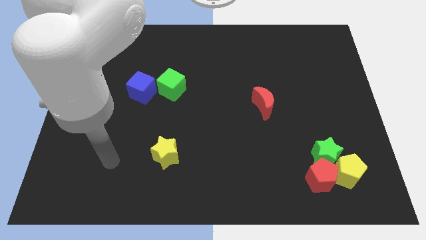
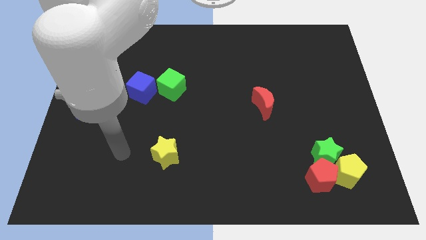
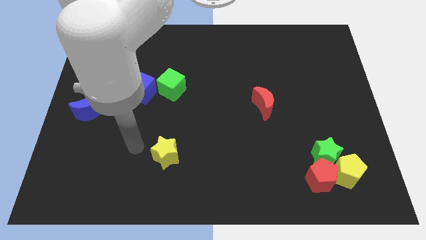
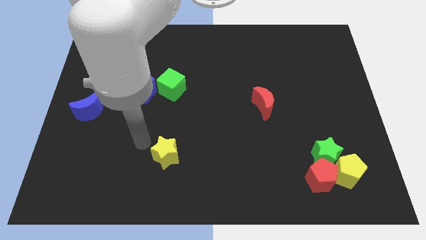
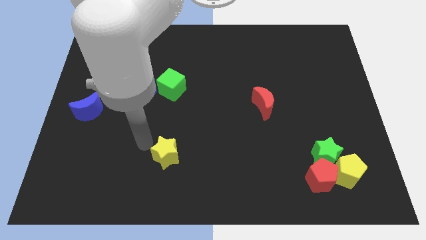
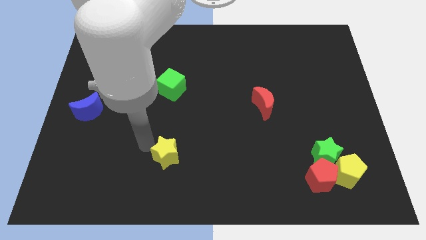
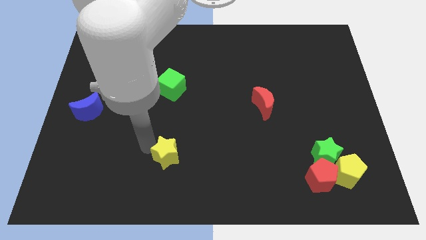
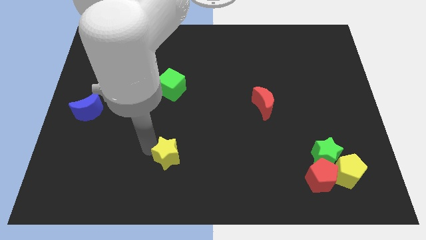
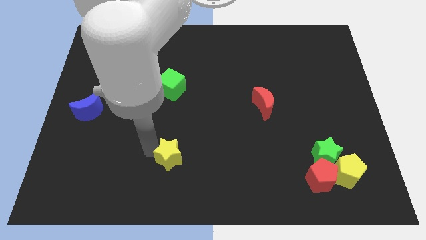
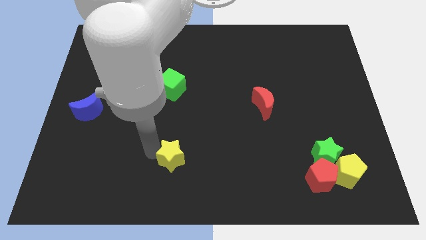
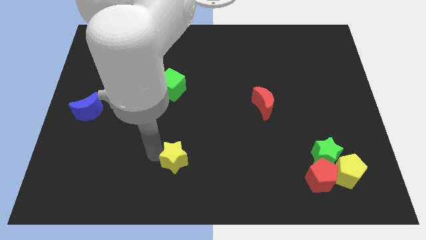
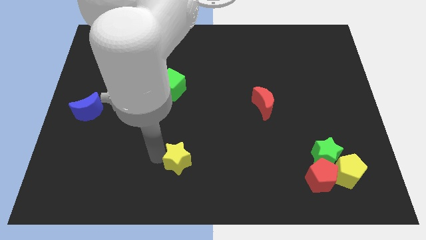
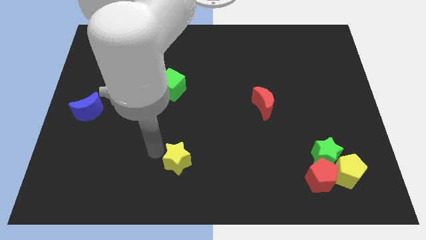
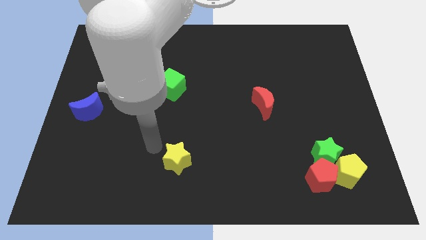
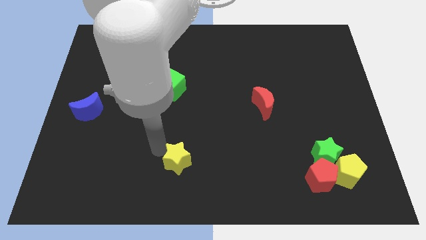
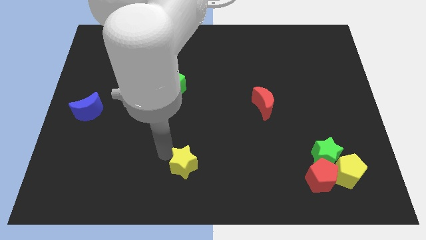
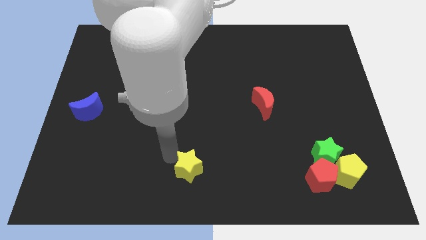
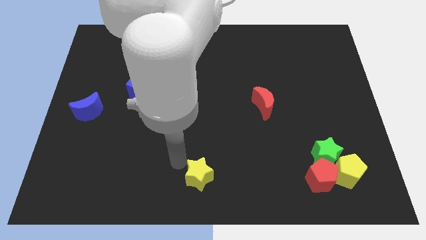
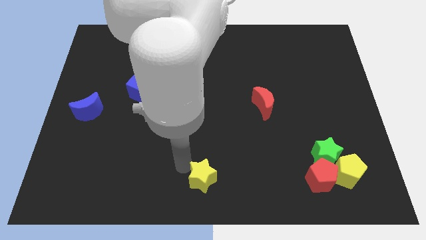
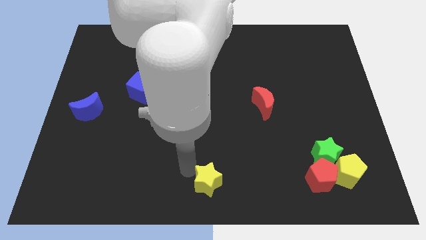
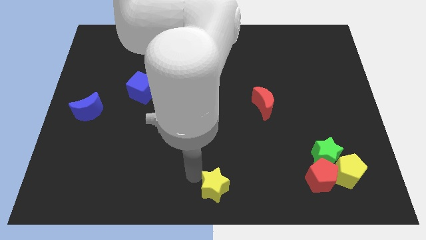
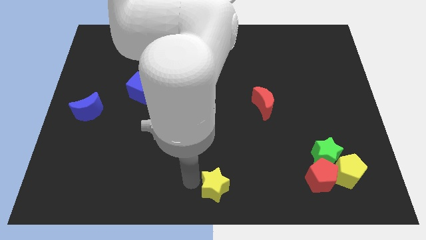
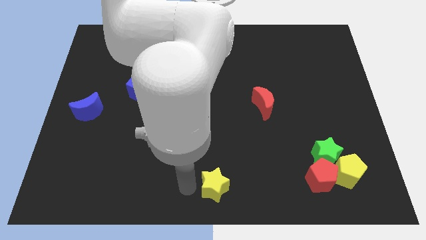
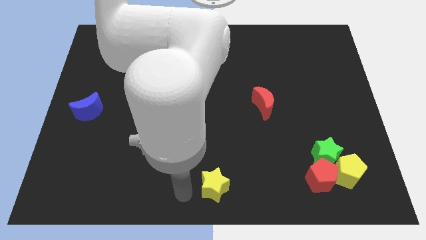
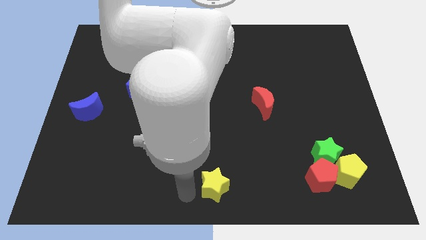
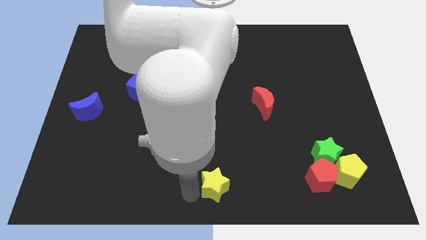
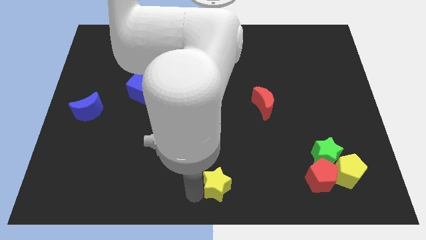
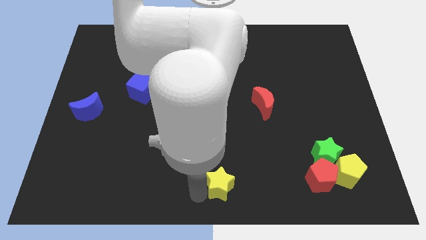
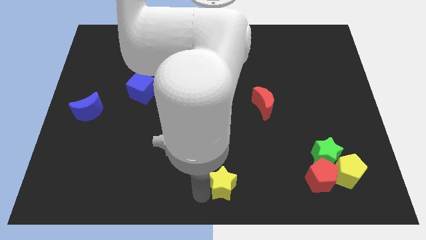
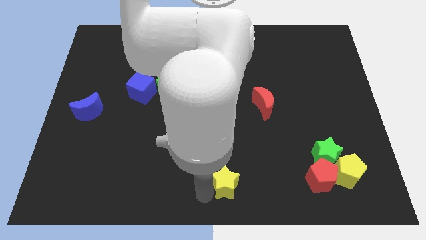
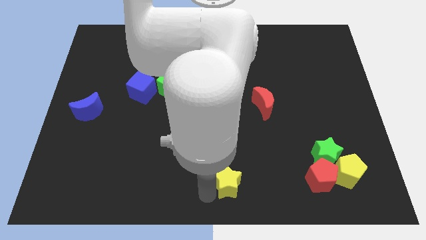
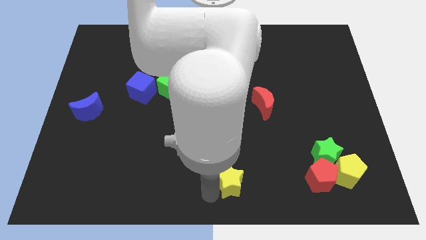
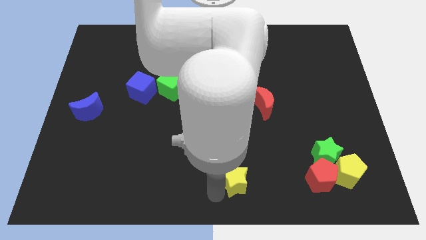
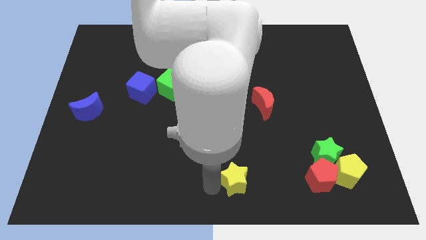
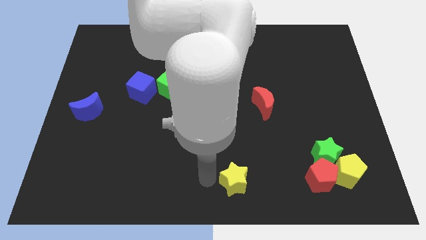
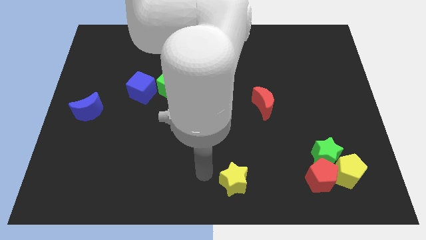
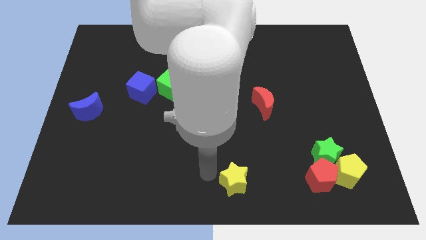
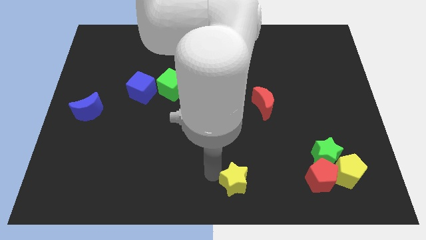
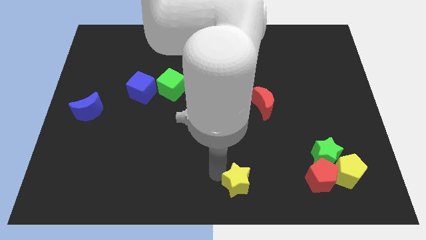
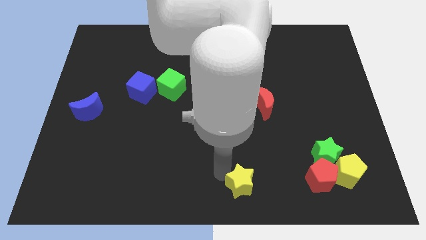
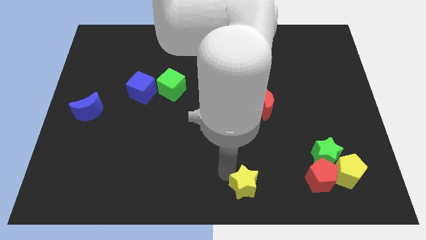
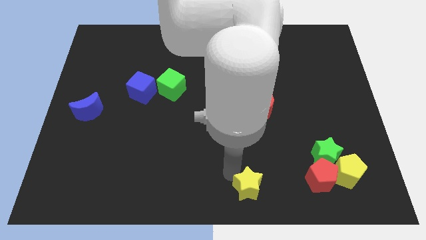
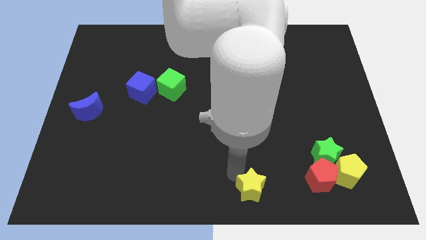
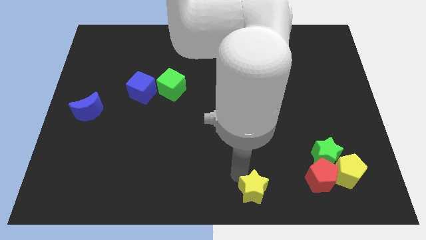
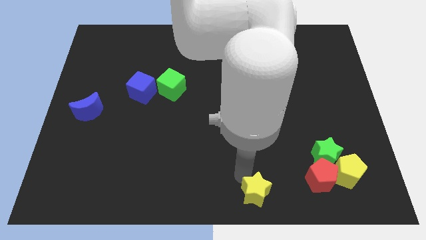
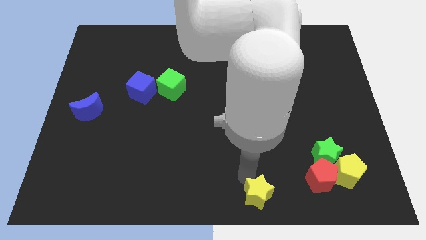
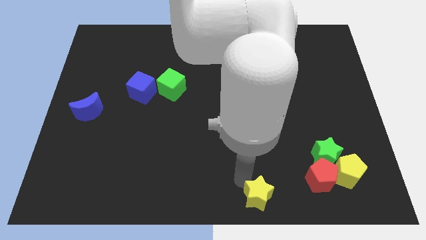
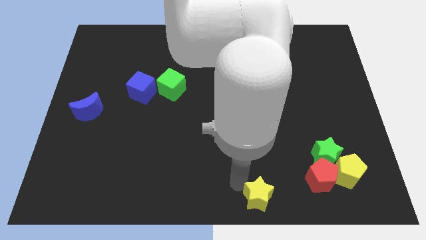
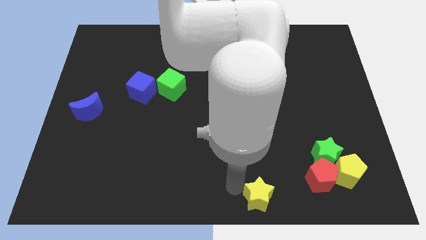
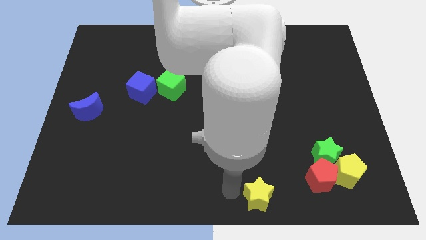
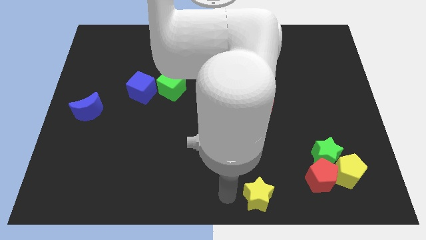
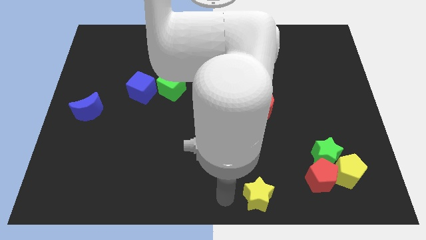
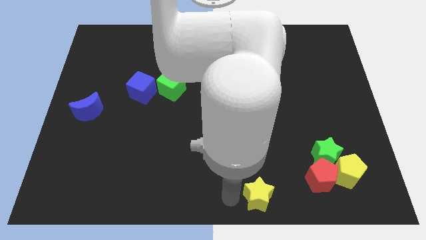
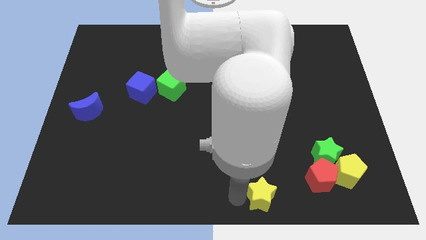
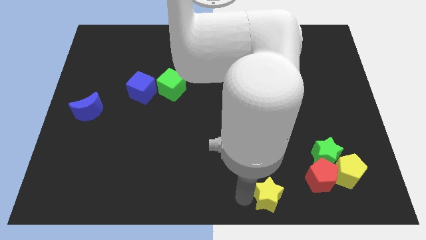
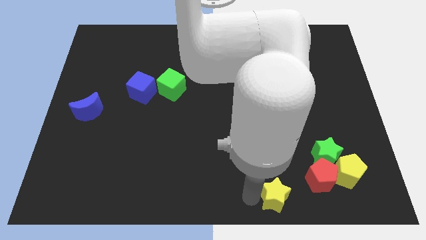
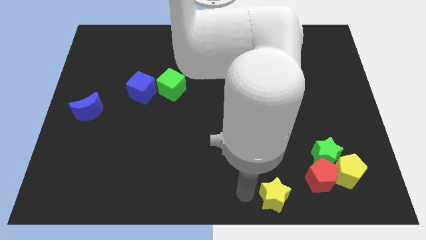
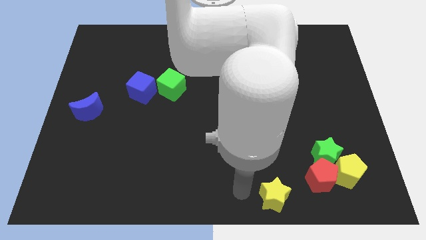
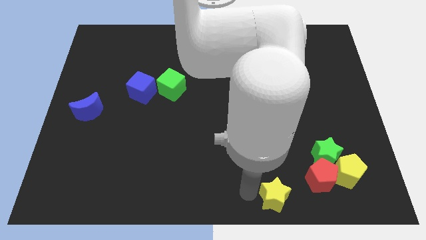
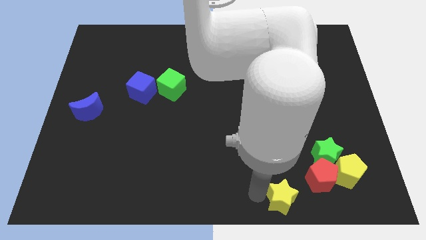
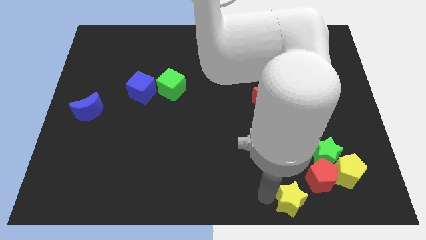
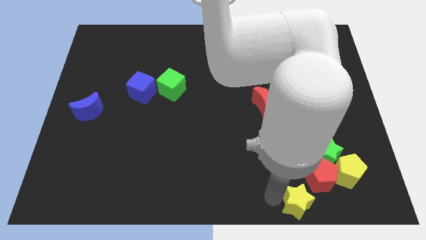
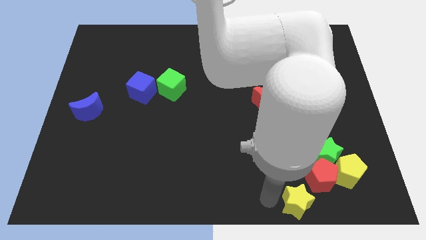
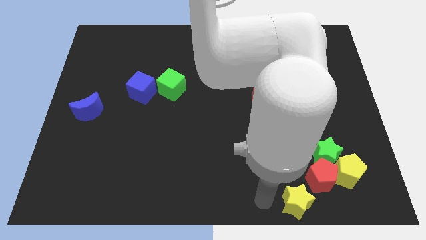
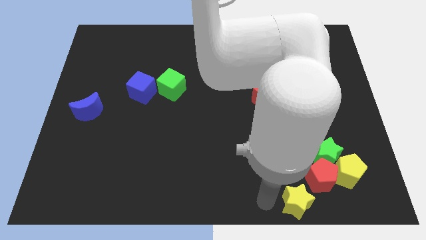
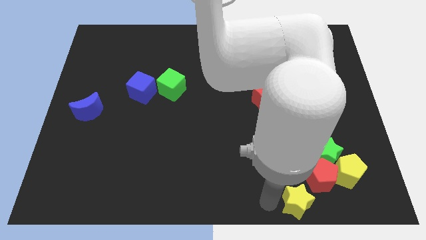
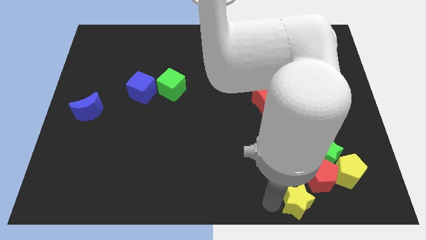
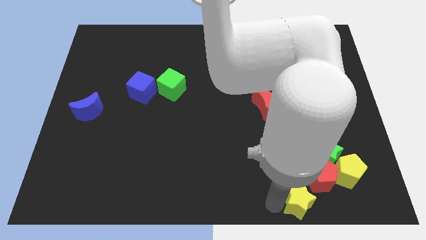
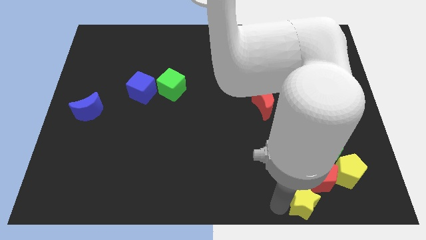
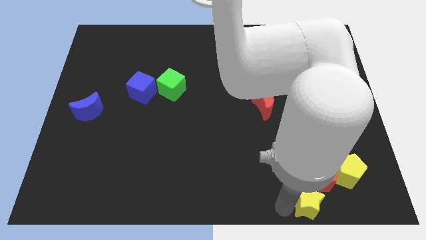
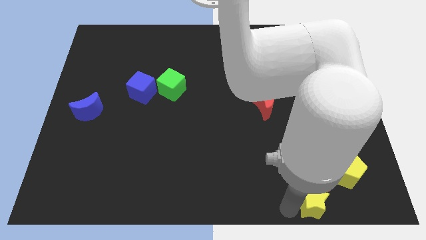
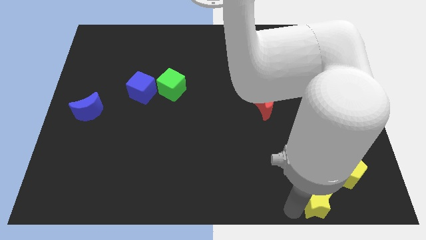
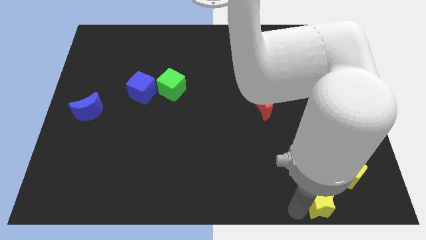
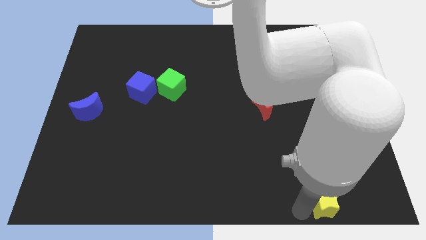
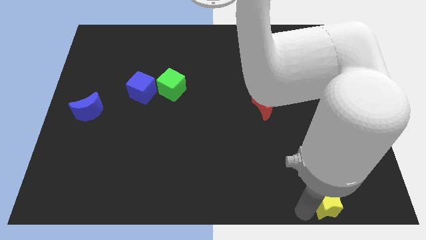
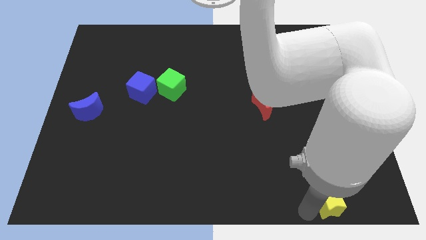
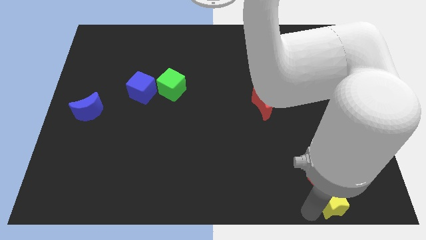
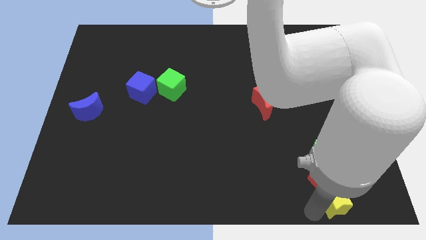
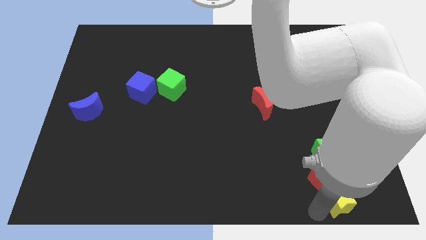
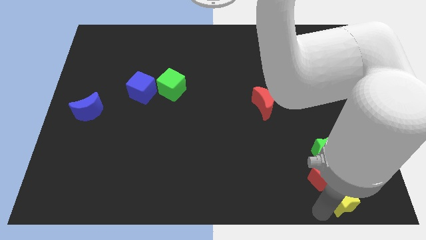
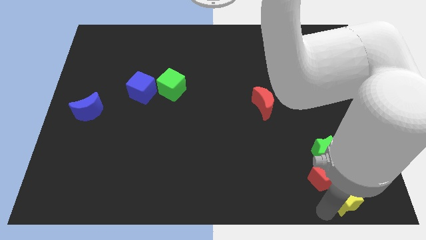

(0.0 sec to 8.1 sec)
slide the yellow star to the yellow pentagon

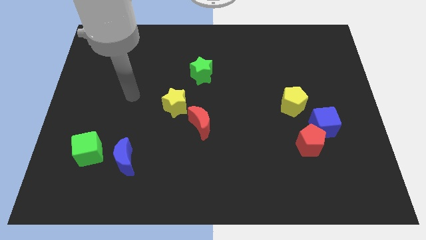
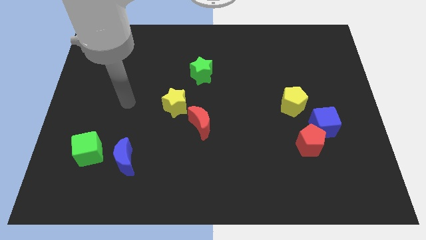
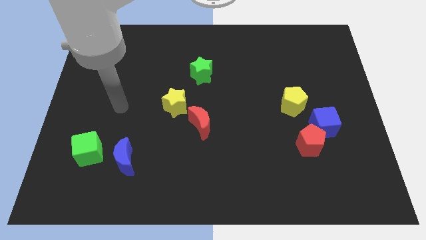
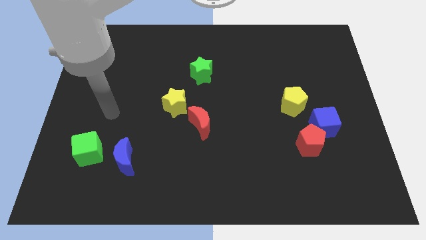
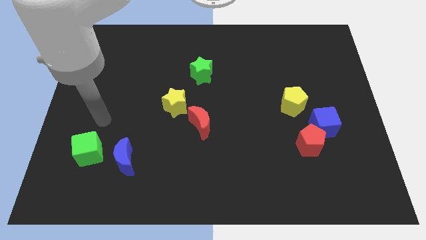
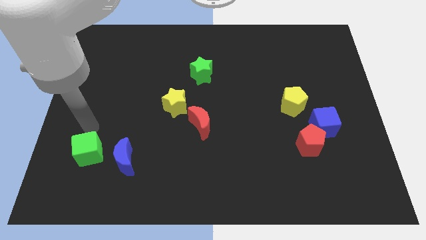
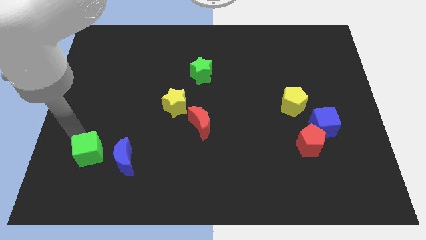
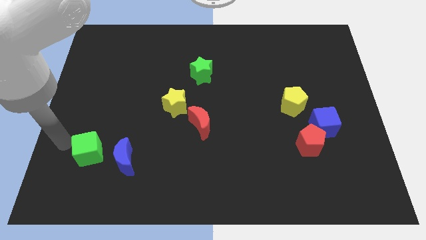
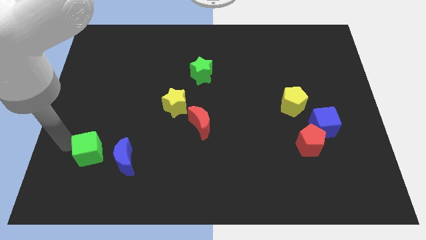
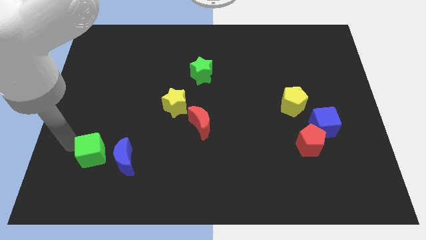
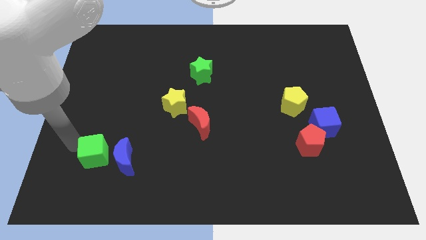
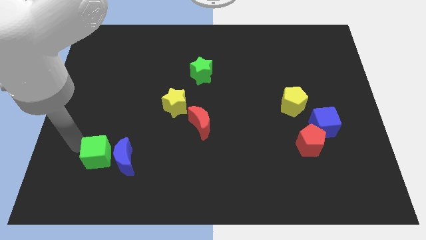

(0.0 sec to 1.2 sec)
put the green cube towards the blue moon
